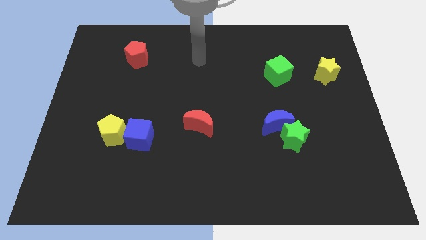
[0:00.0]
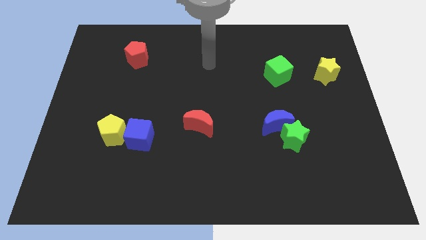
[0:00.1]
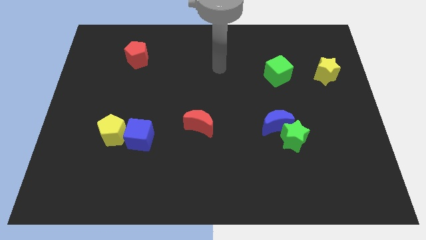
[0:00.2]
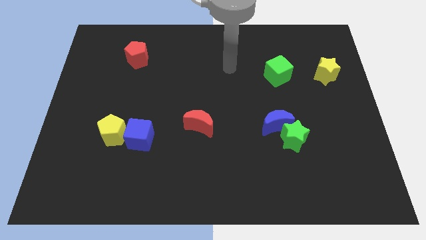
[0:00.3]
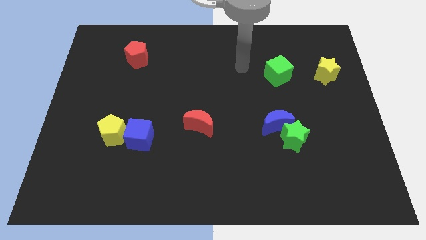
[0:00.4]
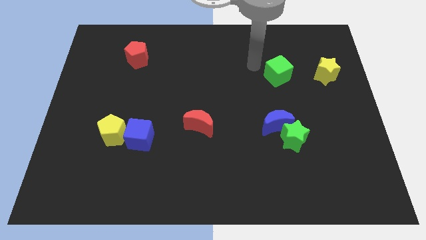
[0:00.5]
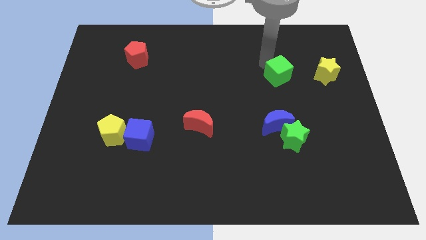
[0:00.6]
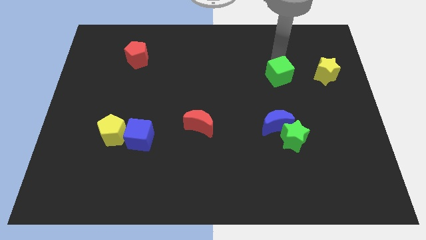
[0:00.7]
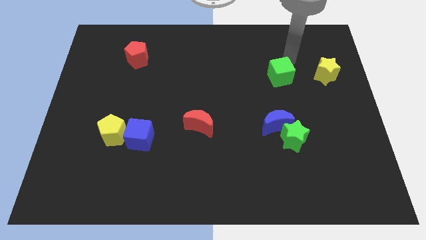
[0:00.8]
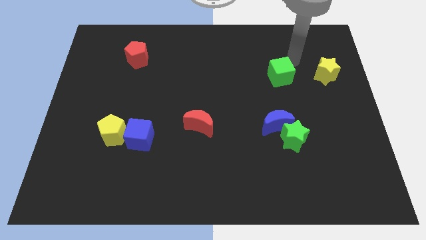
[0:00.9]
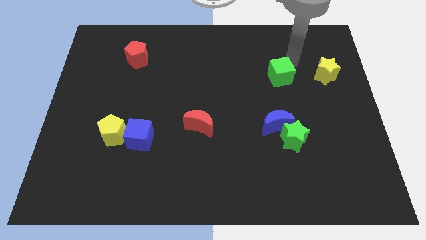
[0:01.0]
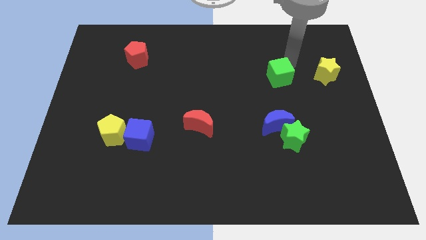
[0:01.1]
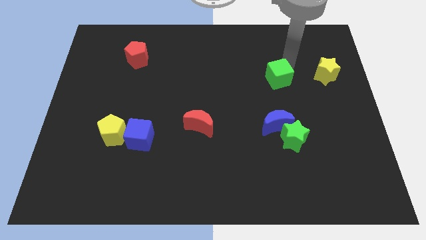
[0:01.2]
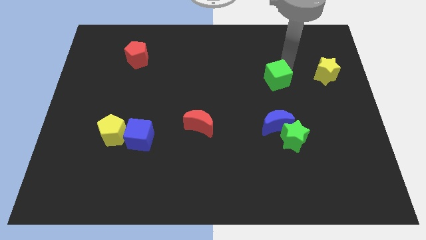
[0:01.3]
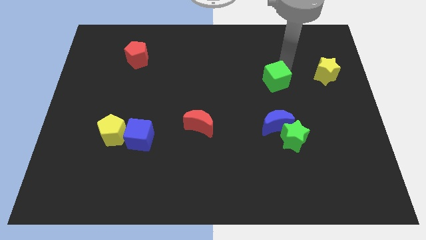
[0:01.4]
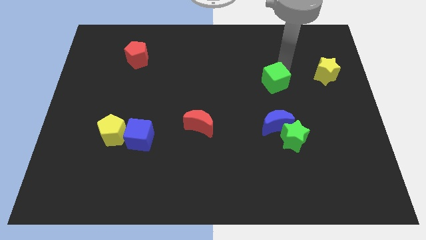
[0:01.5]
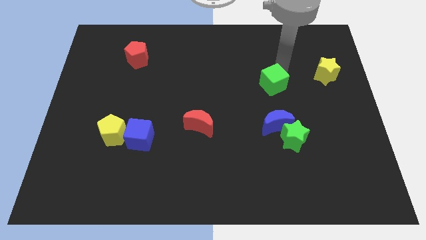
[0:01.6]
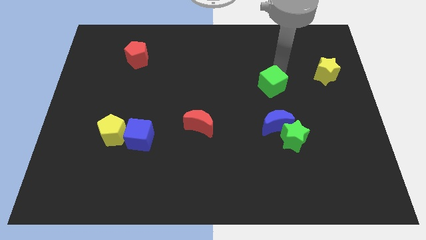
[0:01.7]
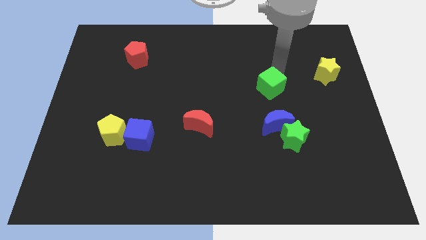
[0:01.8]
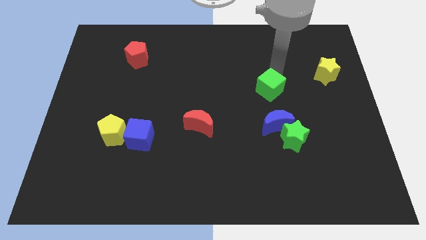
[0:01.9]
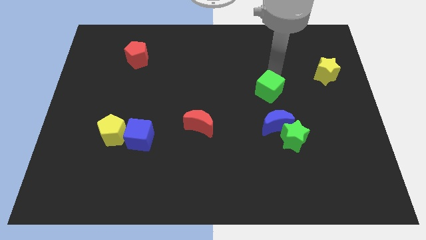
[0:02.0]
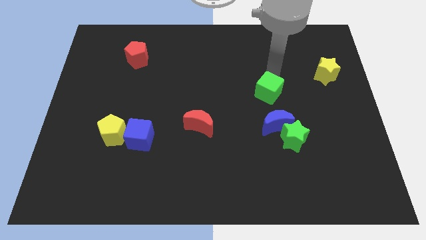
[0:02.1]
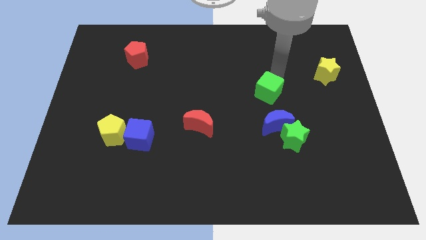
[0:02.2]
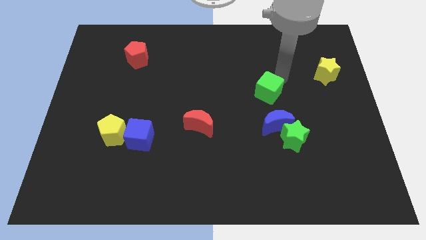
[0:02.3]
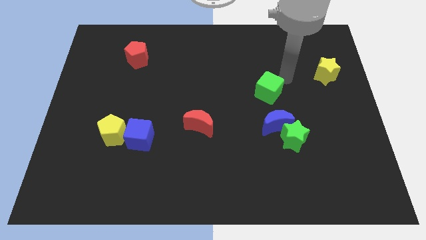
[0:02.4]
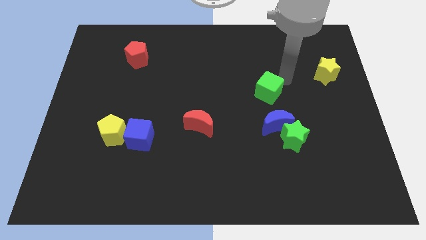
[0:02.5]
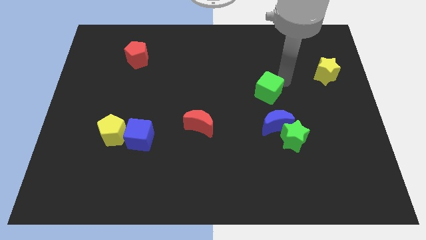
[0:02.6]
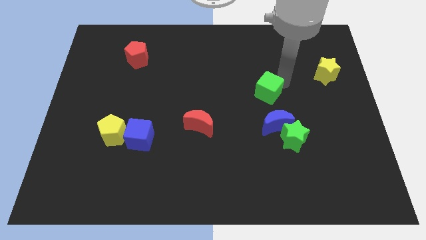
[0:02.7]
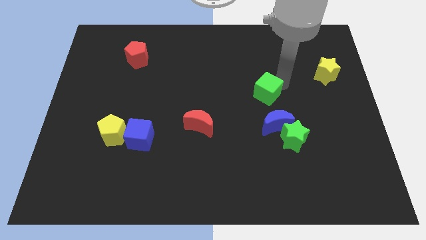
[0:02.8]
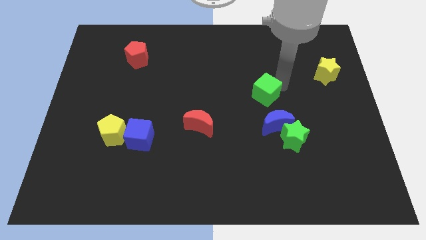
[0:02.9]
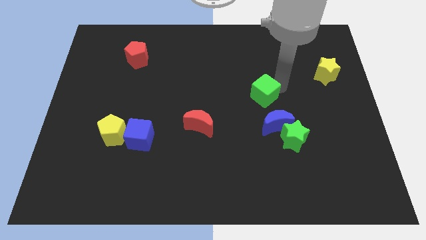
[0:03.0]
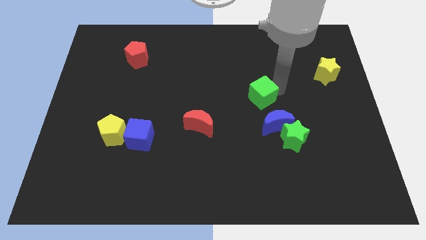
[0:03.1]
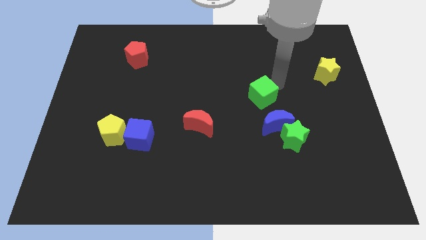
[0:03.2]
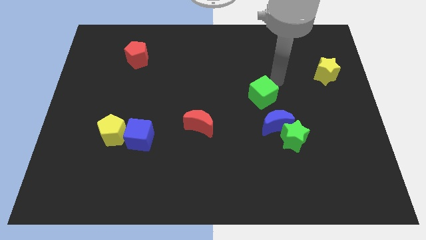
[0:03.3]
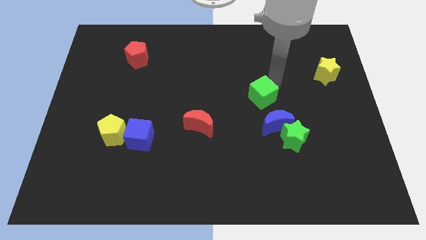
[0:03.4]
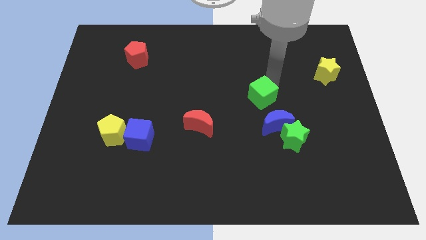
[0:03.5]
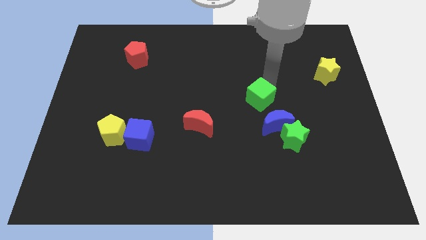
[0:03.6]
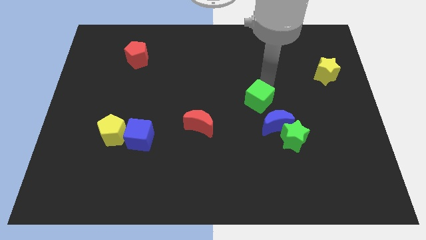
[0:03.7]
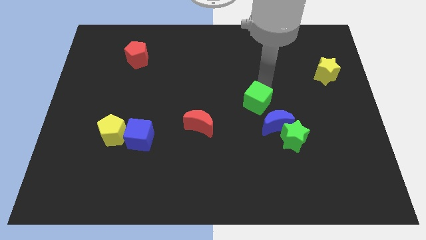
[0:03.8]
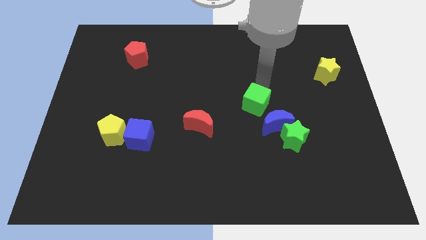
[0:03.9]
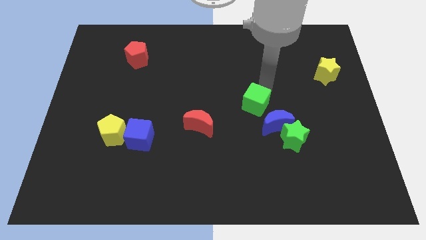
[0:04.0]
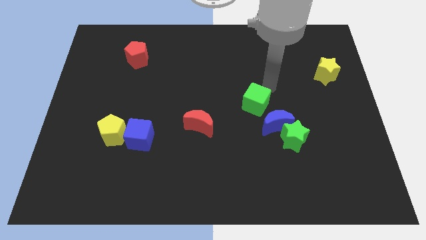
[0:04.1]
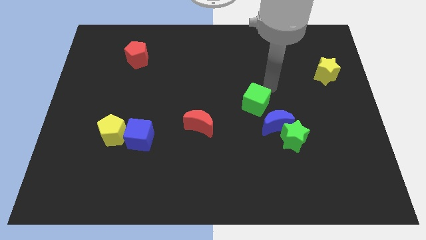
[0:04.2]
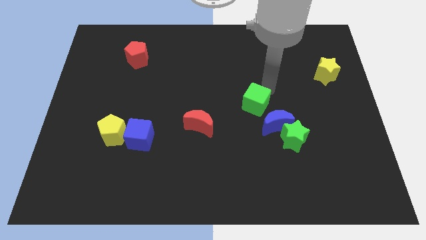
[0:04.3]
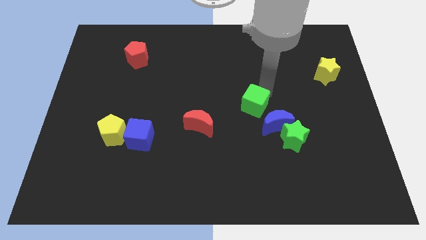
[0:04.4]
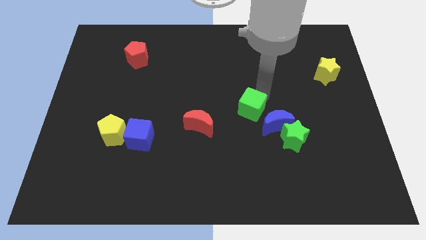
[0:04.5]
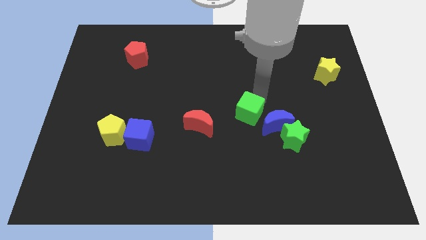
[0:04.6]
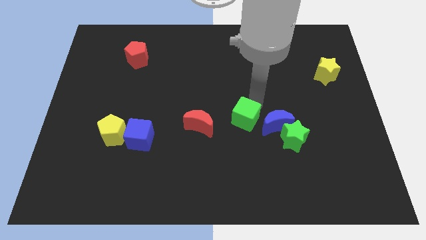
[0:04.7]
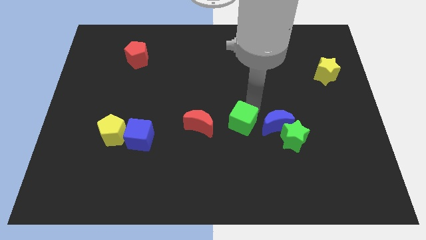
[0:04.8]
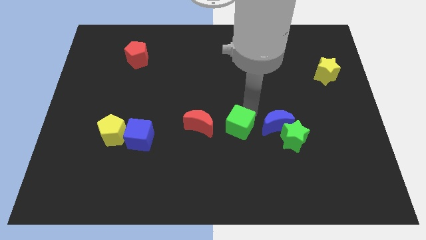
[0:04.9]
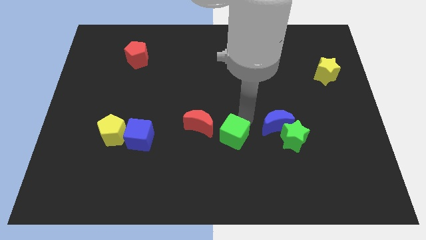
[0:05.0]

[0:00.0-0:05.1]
slide the green cube downwards and then to the left

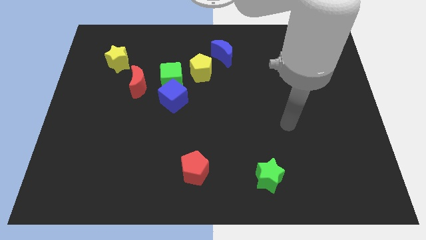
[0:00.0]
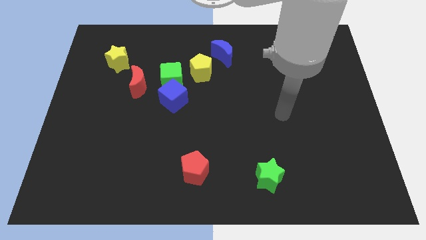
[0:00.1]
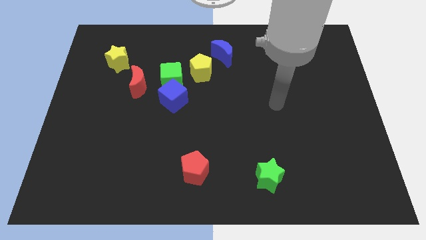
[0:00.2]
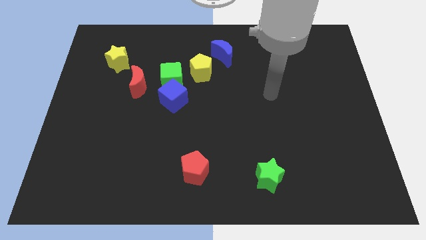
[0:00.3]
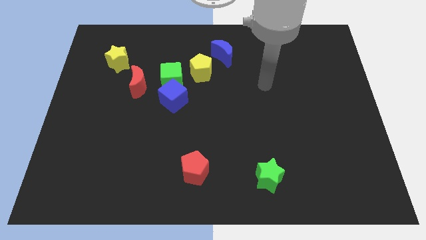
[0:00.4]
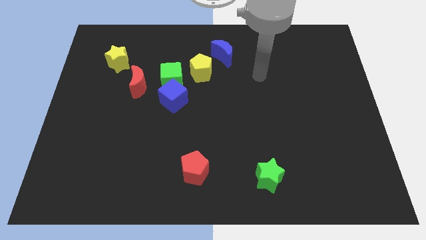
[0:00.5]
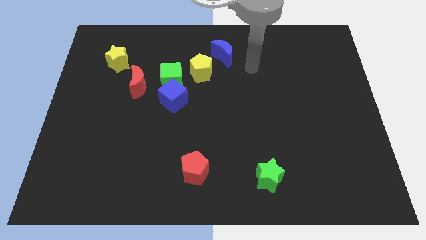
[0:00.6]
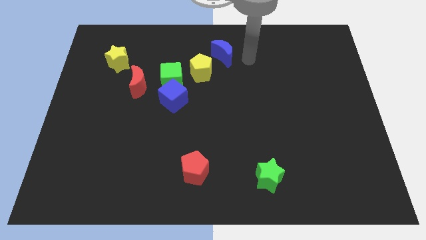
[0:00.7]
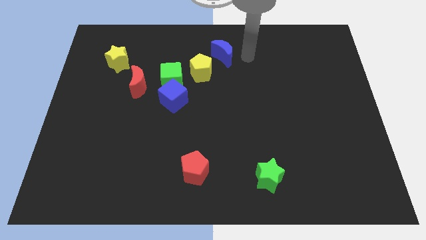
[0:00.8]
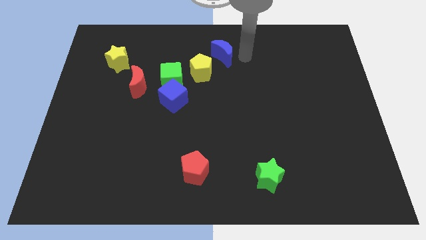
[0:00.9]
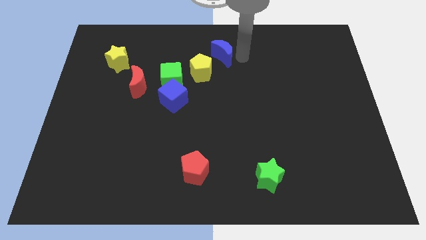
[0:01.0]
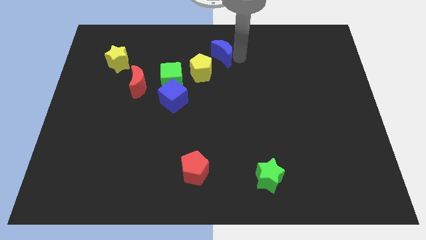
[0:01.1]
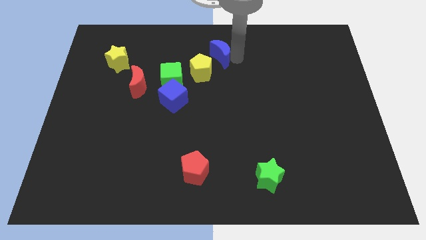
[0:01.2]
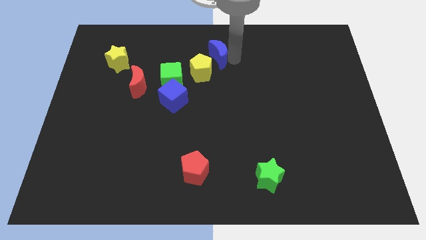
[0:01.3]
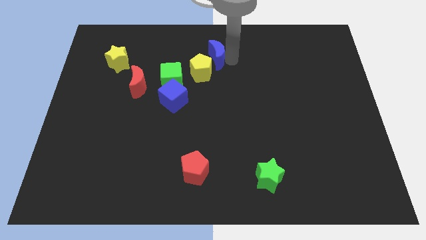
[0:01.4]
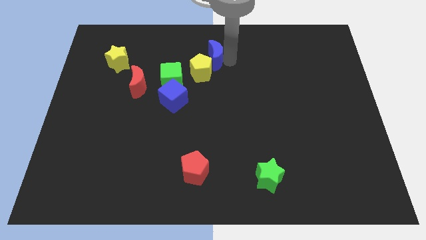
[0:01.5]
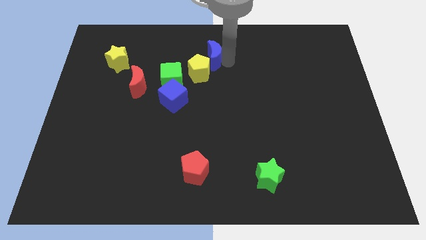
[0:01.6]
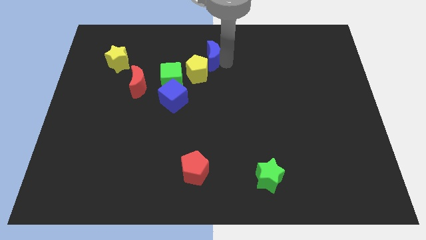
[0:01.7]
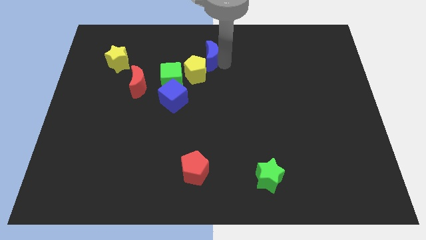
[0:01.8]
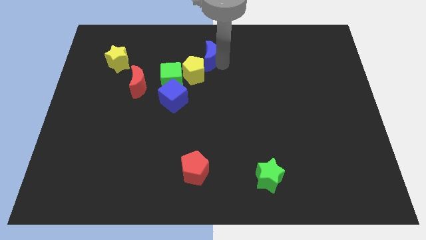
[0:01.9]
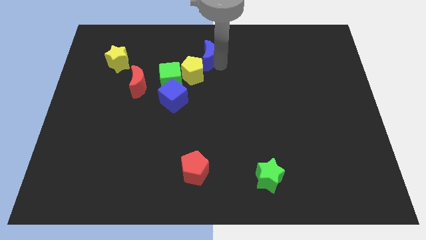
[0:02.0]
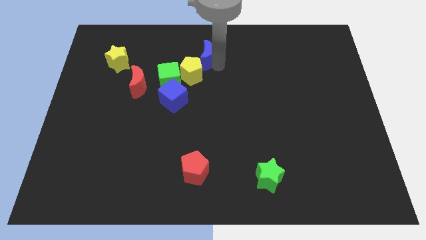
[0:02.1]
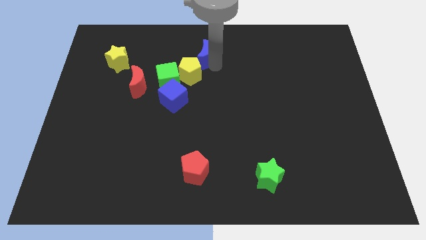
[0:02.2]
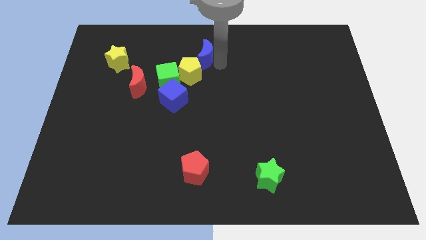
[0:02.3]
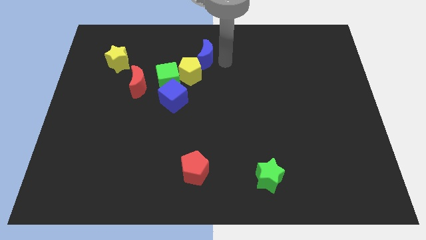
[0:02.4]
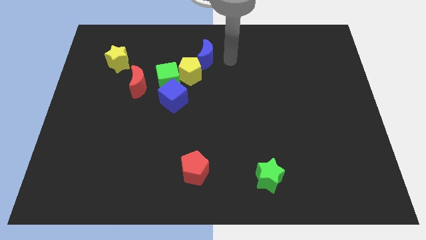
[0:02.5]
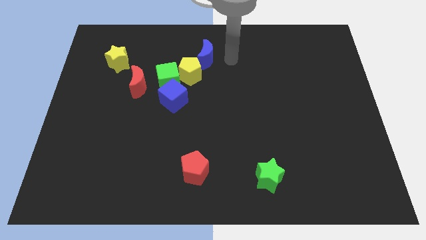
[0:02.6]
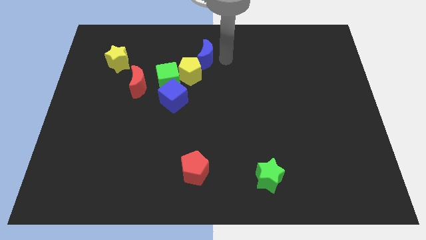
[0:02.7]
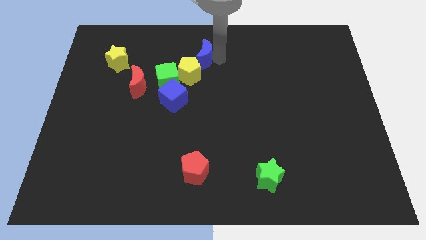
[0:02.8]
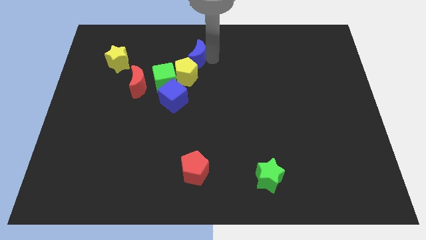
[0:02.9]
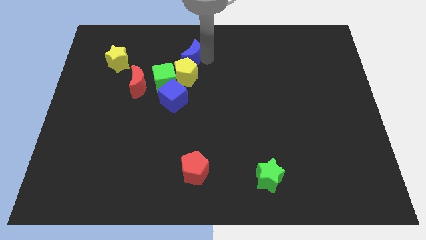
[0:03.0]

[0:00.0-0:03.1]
slightly slide the blue moon to the left
